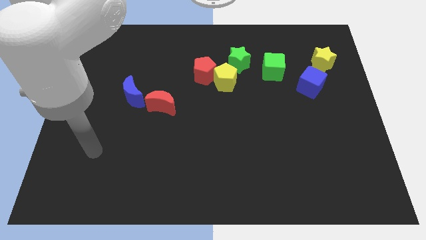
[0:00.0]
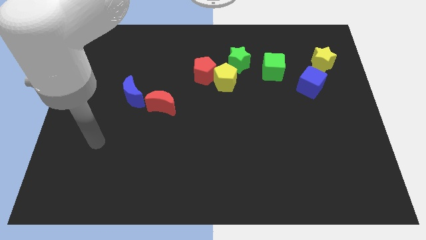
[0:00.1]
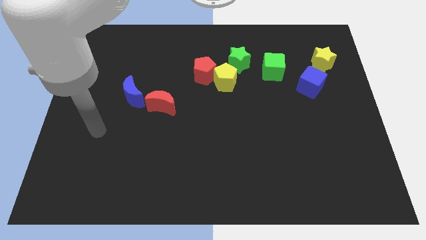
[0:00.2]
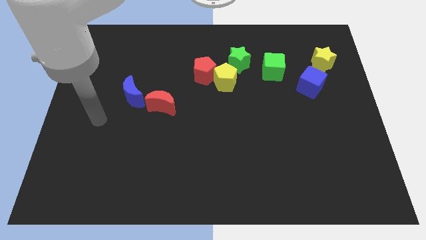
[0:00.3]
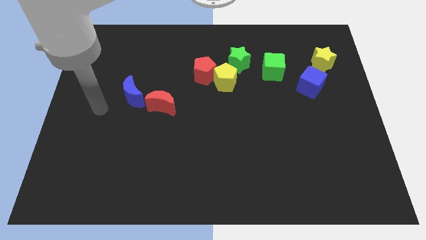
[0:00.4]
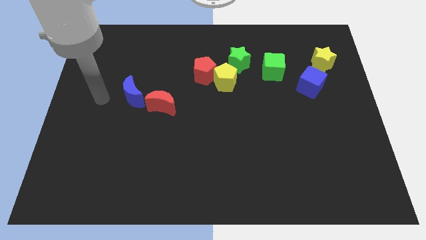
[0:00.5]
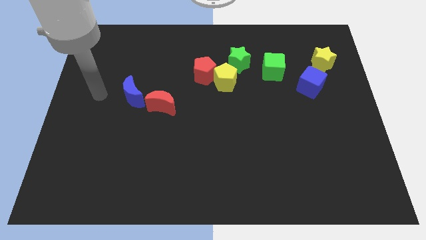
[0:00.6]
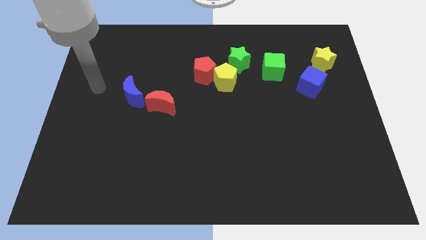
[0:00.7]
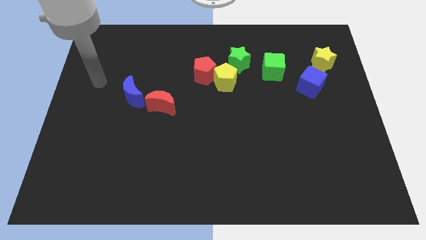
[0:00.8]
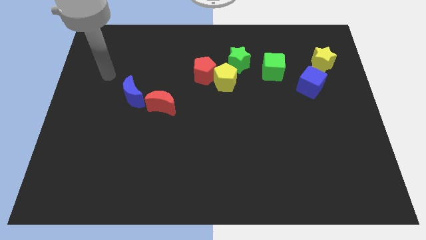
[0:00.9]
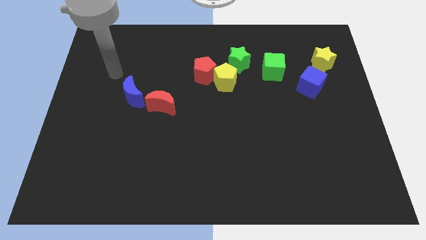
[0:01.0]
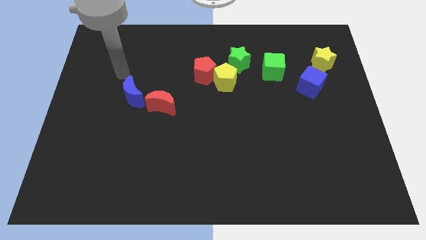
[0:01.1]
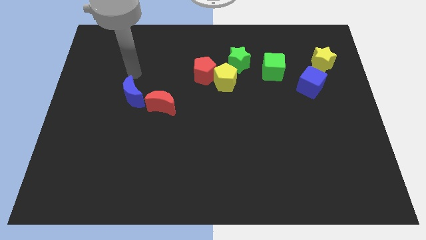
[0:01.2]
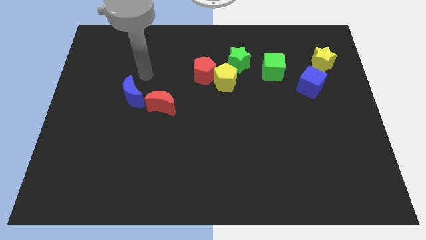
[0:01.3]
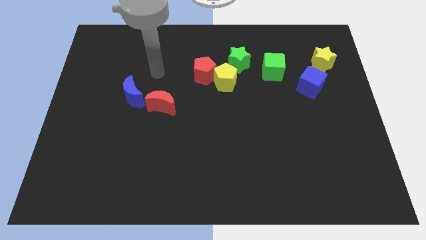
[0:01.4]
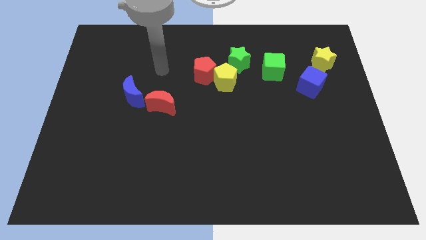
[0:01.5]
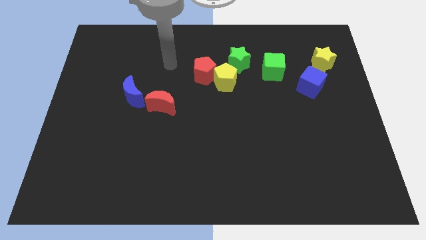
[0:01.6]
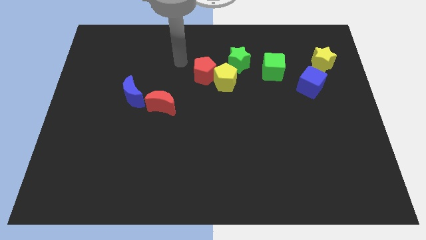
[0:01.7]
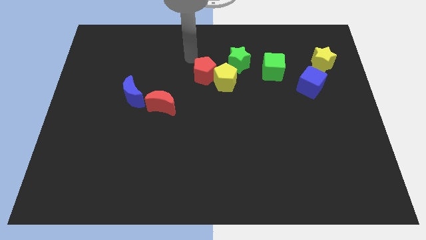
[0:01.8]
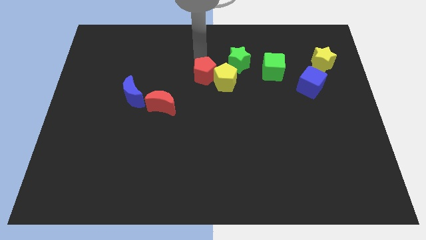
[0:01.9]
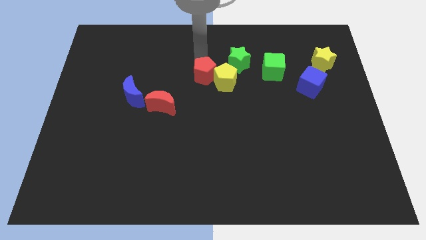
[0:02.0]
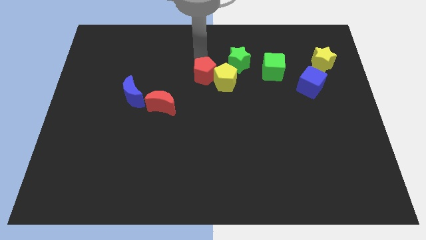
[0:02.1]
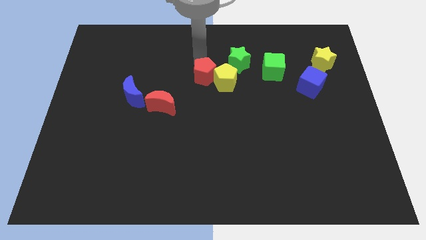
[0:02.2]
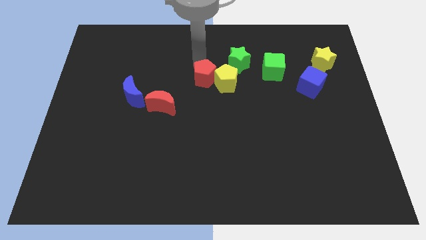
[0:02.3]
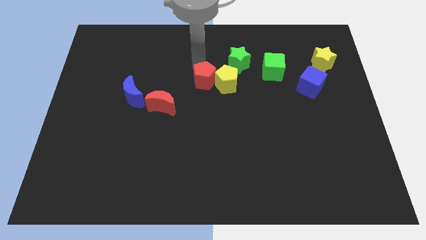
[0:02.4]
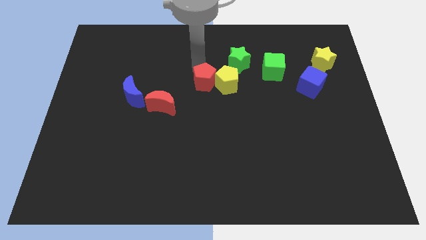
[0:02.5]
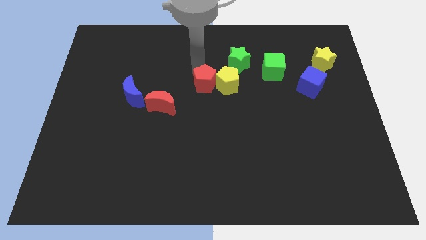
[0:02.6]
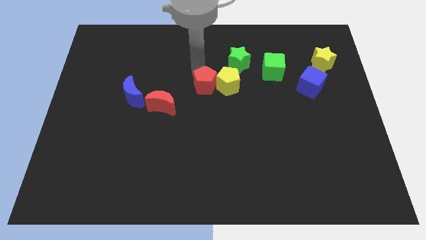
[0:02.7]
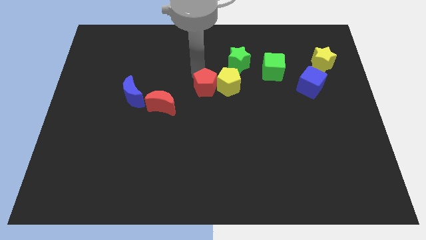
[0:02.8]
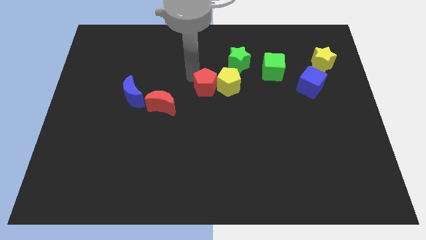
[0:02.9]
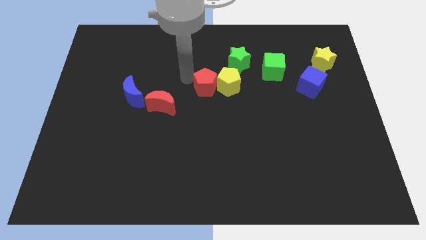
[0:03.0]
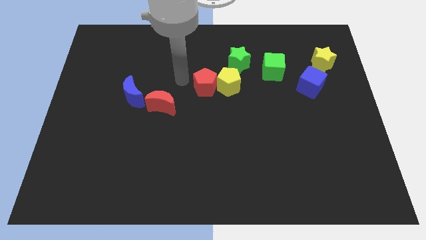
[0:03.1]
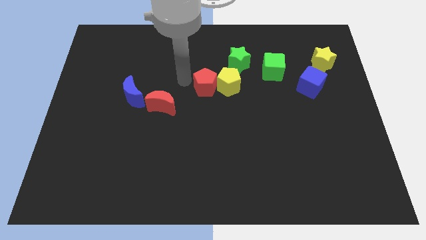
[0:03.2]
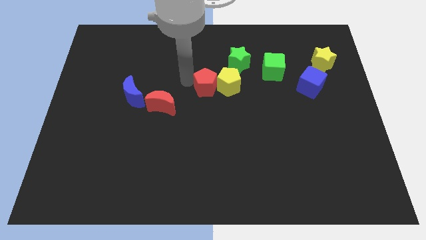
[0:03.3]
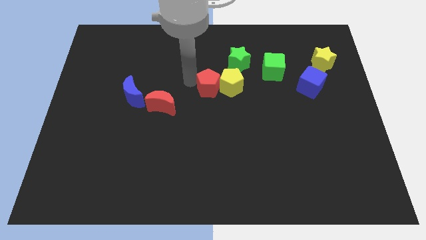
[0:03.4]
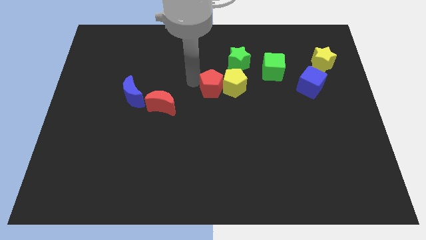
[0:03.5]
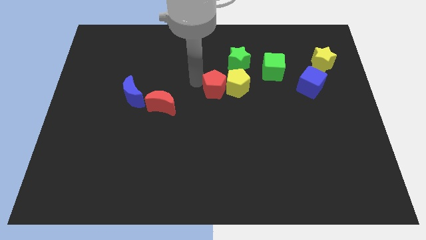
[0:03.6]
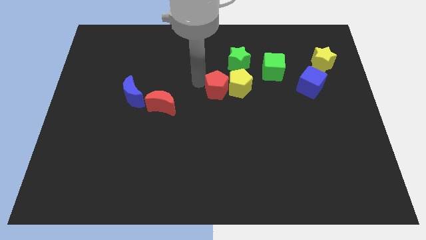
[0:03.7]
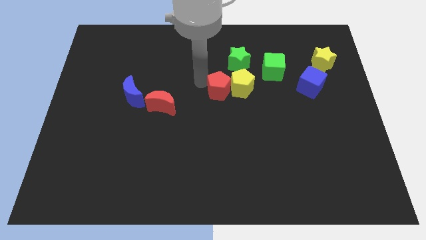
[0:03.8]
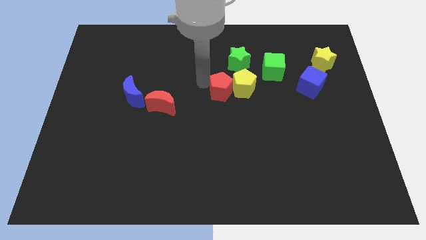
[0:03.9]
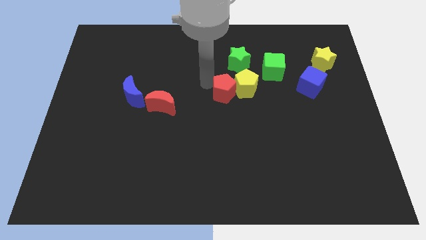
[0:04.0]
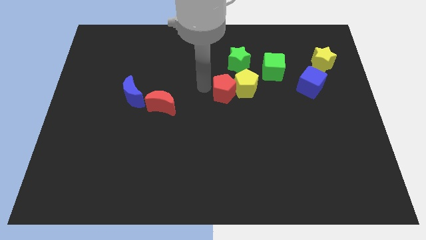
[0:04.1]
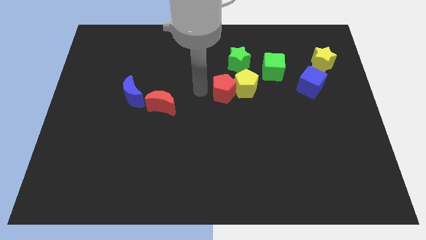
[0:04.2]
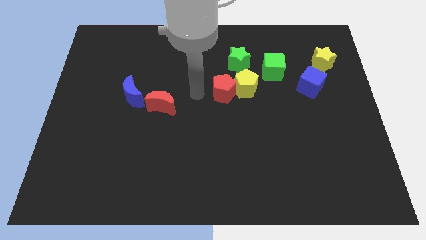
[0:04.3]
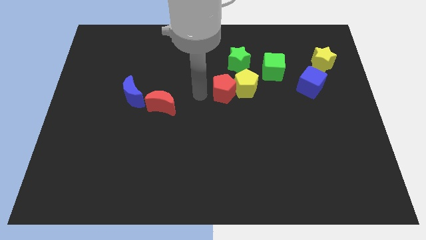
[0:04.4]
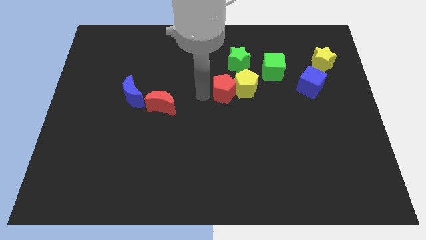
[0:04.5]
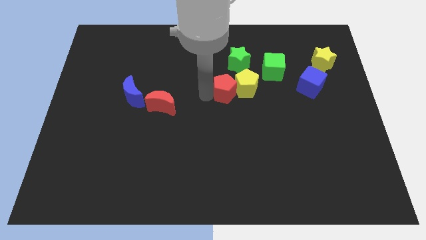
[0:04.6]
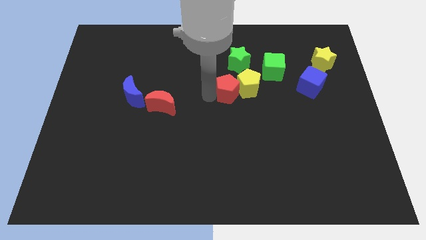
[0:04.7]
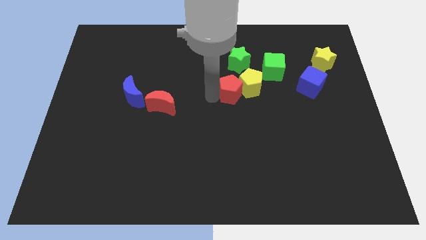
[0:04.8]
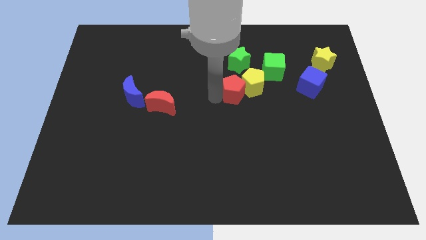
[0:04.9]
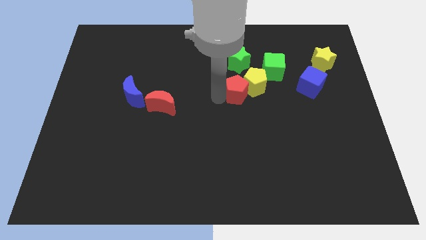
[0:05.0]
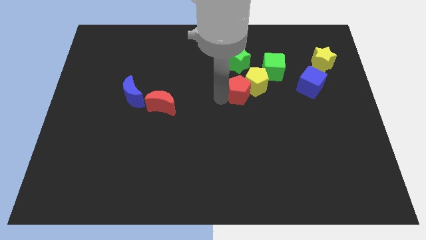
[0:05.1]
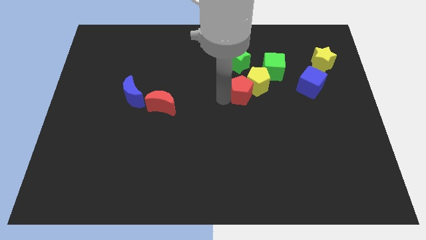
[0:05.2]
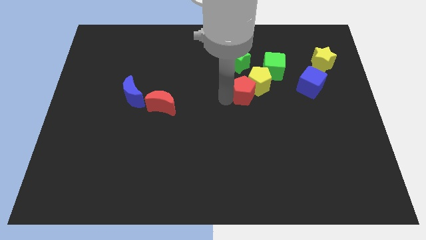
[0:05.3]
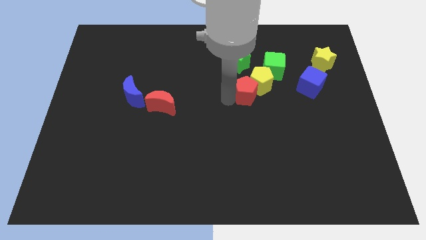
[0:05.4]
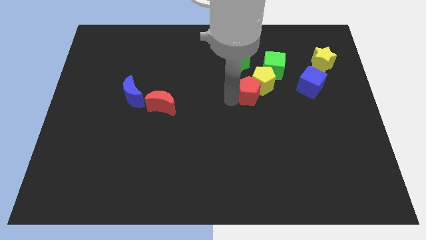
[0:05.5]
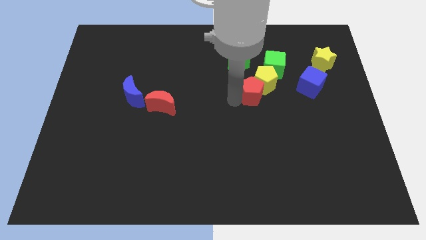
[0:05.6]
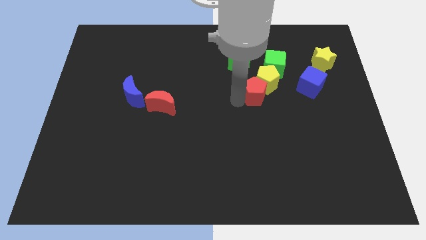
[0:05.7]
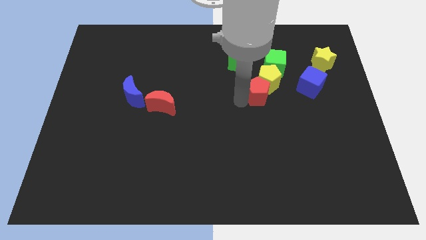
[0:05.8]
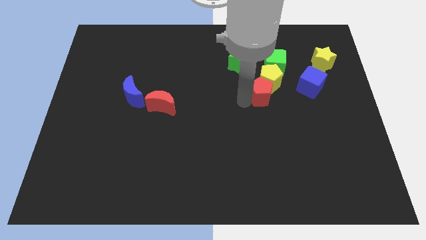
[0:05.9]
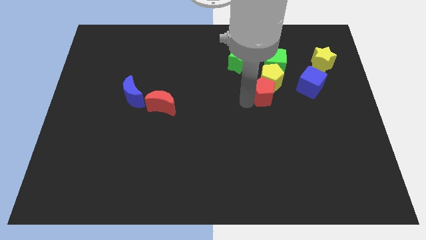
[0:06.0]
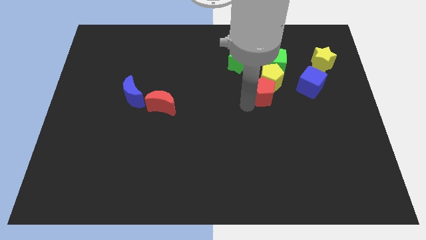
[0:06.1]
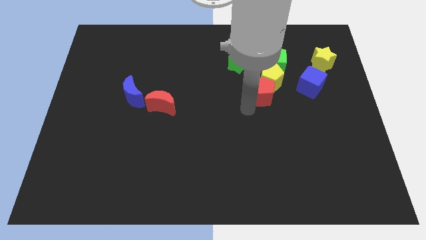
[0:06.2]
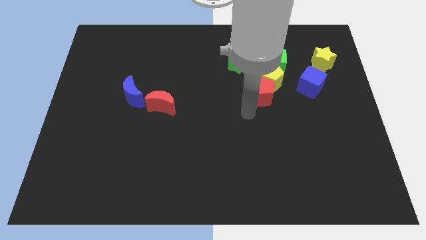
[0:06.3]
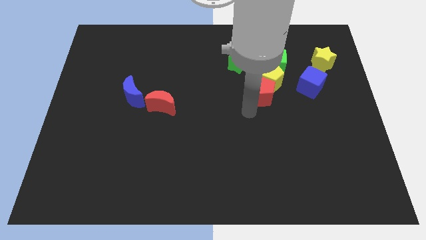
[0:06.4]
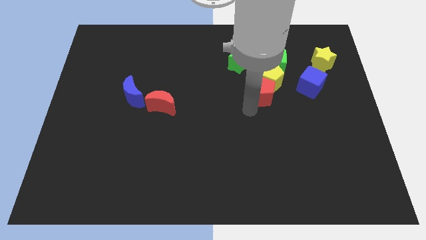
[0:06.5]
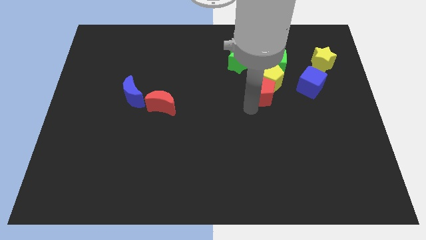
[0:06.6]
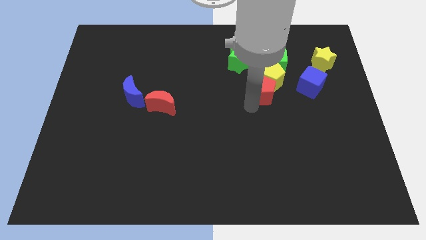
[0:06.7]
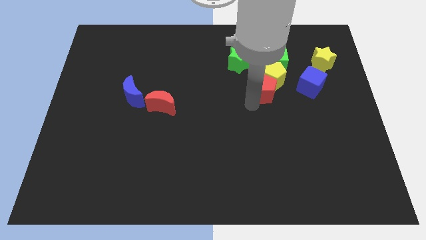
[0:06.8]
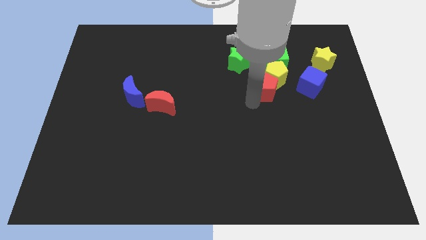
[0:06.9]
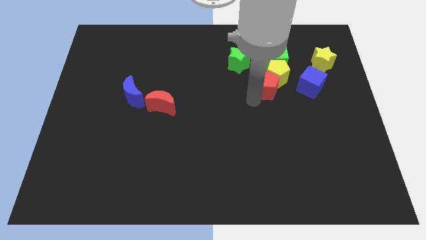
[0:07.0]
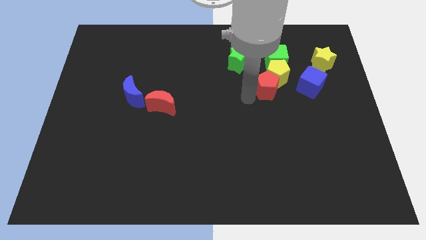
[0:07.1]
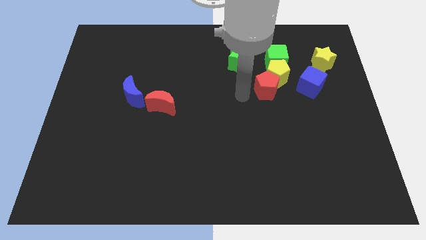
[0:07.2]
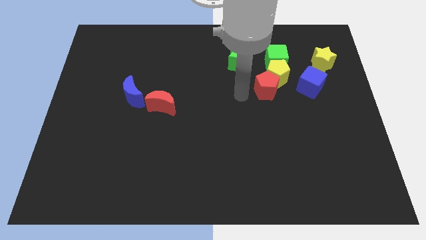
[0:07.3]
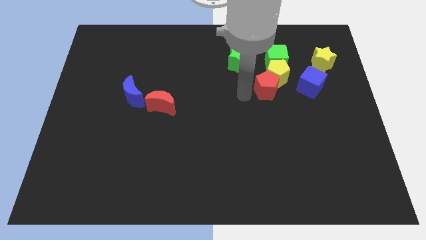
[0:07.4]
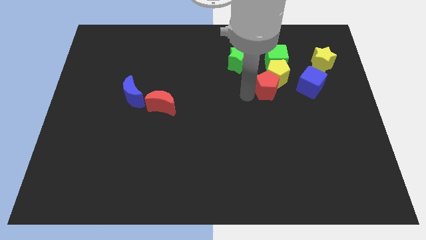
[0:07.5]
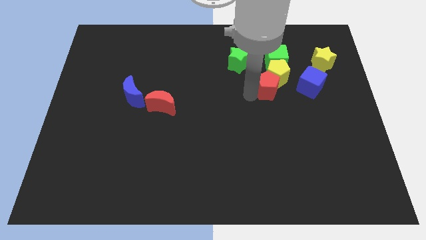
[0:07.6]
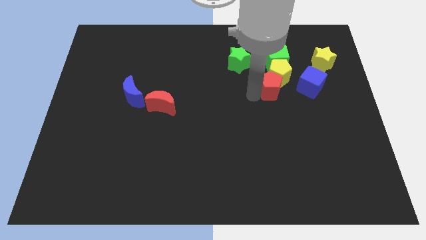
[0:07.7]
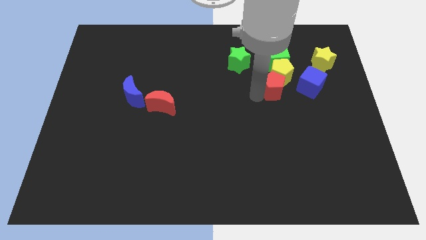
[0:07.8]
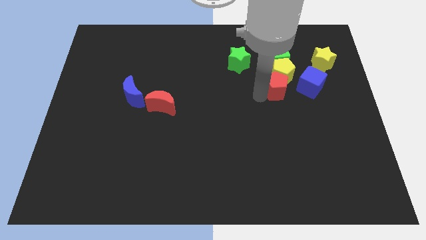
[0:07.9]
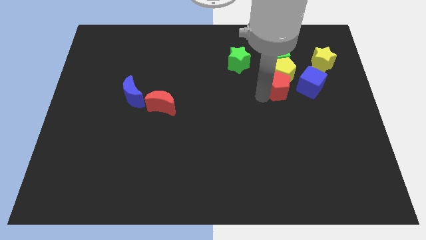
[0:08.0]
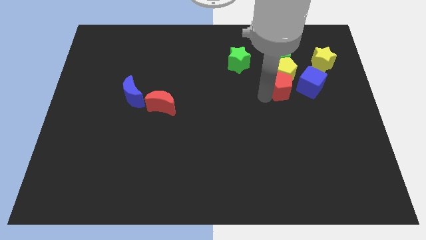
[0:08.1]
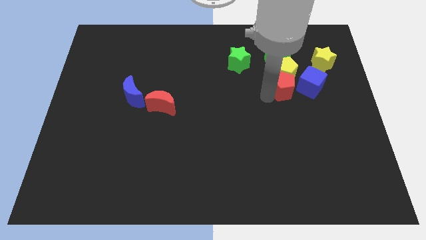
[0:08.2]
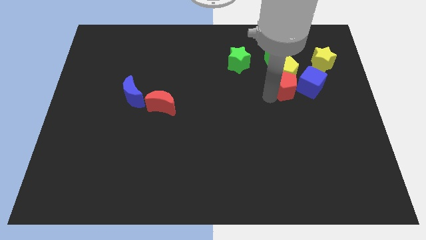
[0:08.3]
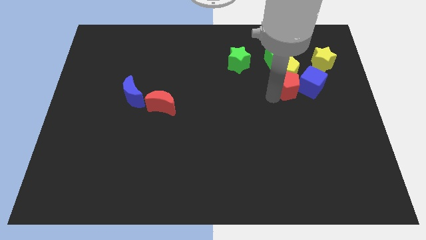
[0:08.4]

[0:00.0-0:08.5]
push the red pentagon to the blue cube
